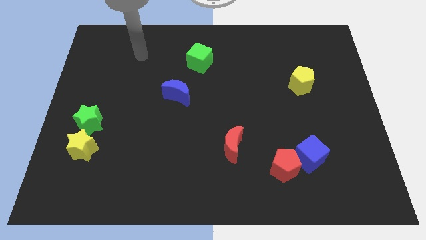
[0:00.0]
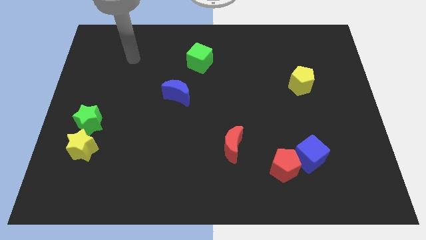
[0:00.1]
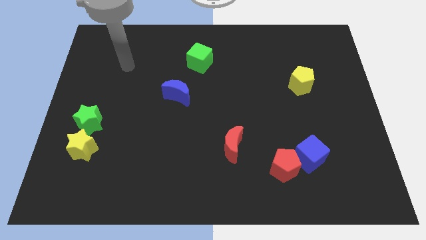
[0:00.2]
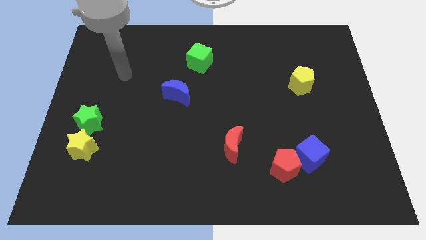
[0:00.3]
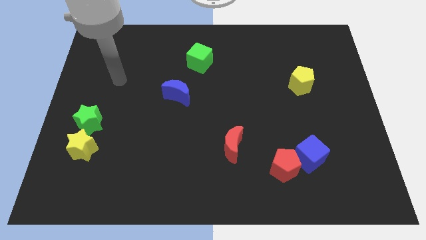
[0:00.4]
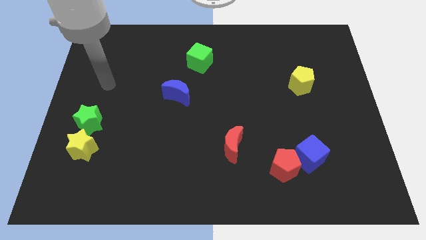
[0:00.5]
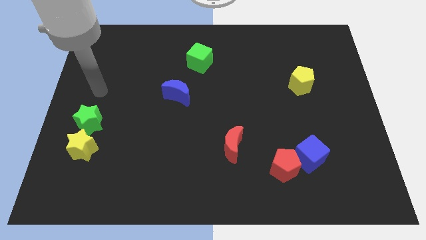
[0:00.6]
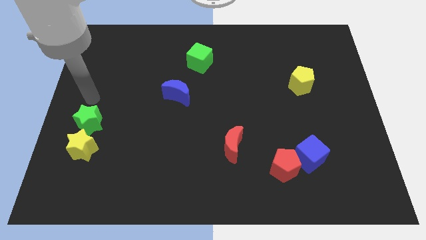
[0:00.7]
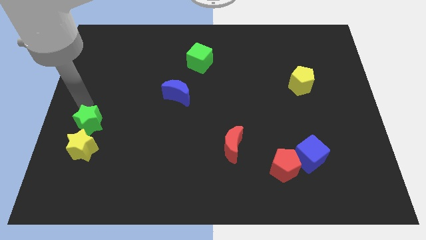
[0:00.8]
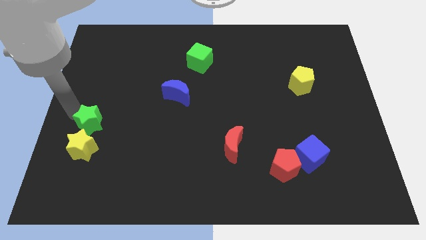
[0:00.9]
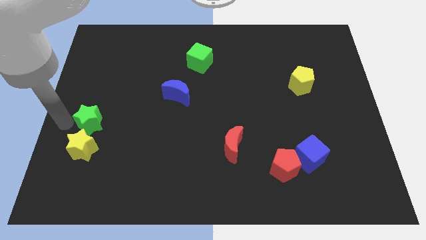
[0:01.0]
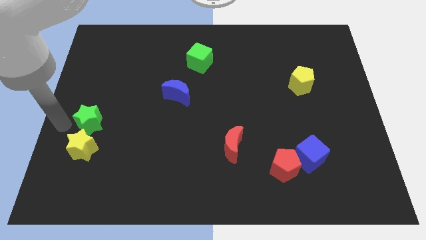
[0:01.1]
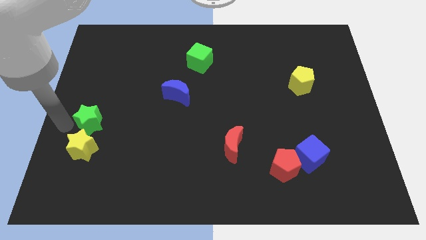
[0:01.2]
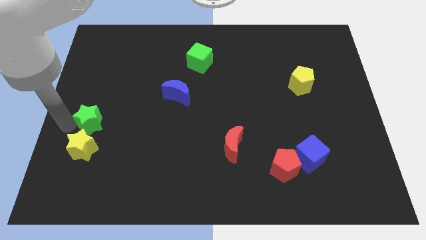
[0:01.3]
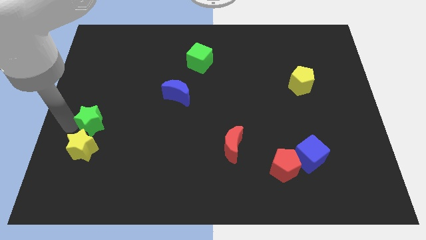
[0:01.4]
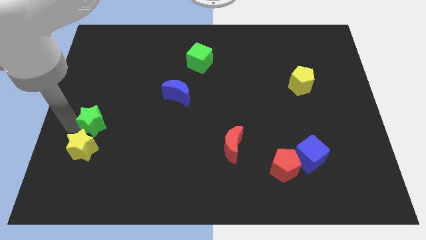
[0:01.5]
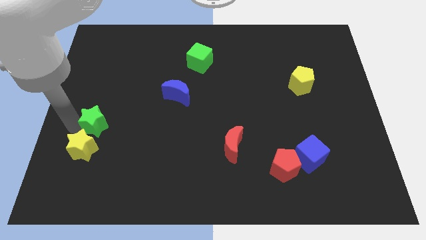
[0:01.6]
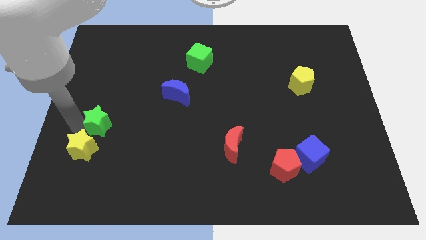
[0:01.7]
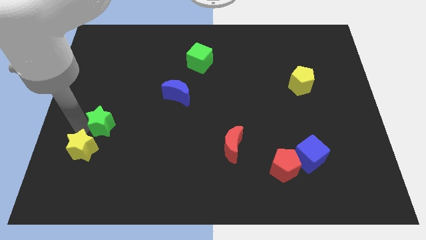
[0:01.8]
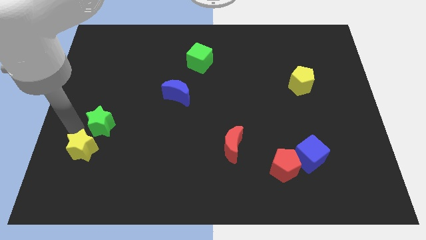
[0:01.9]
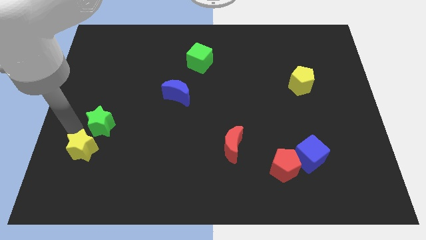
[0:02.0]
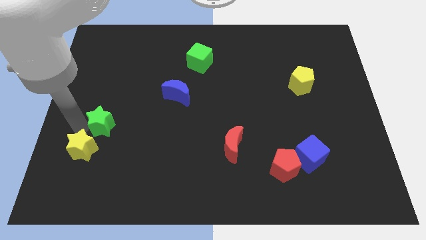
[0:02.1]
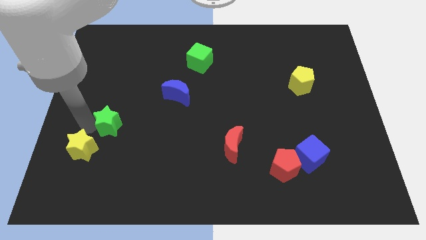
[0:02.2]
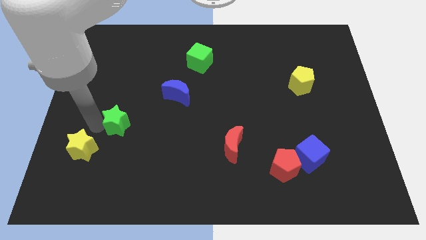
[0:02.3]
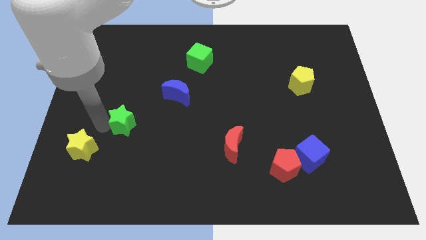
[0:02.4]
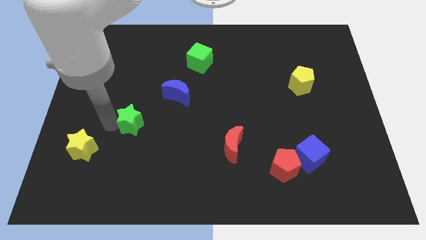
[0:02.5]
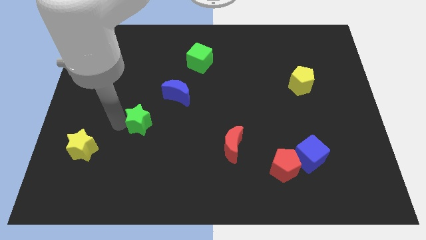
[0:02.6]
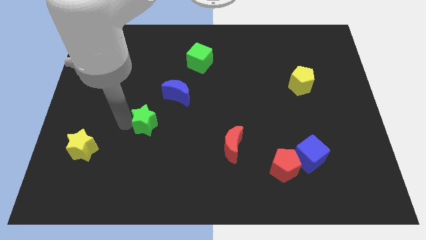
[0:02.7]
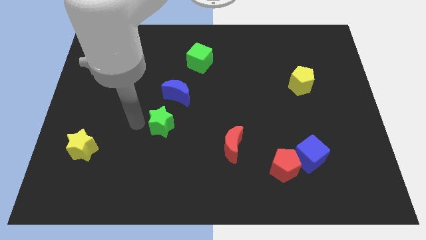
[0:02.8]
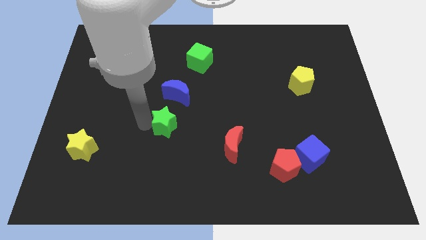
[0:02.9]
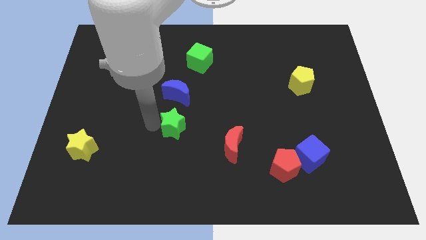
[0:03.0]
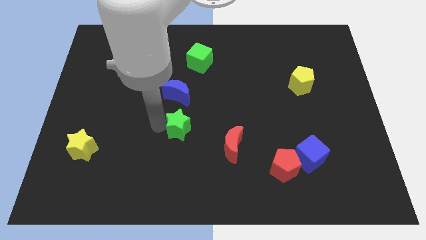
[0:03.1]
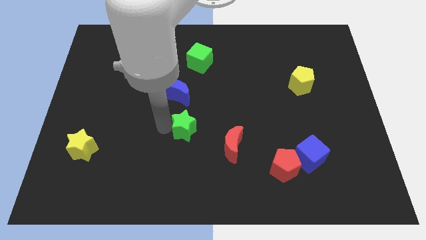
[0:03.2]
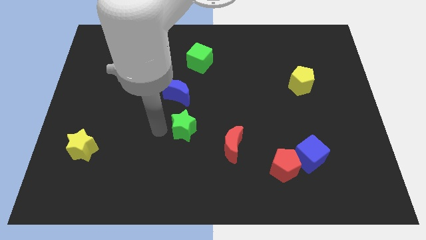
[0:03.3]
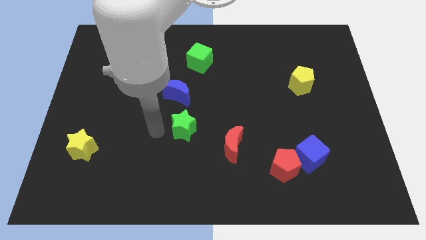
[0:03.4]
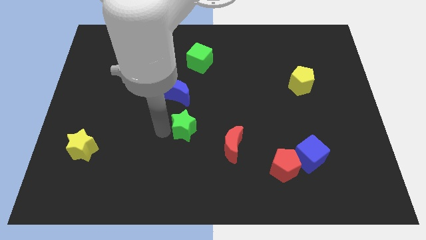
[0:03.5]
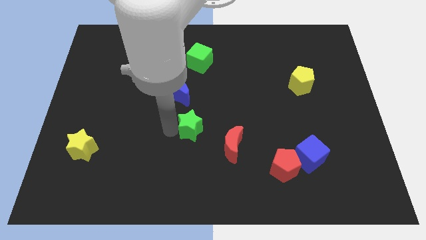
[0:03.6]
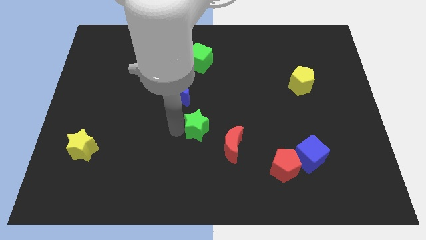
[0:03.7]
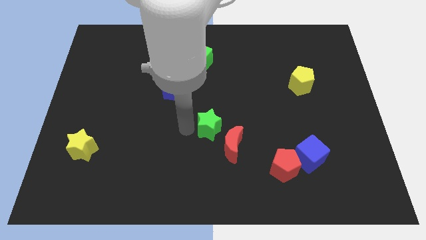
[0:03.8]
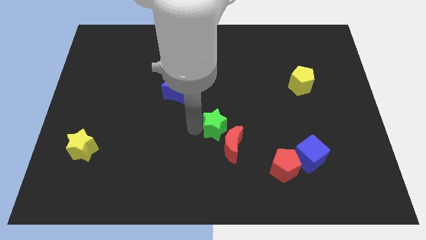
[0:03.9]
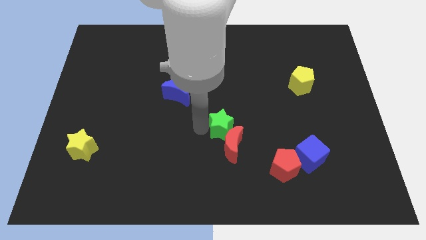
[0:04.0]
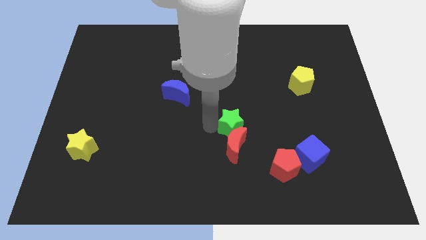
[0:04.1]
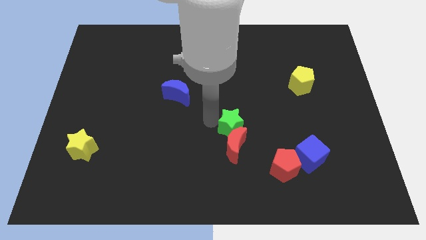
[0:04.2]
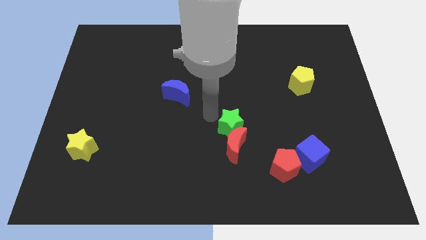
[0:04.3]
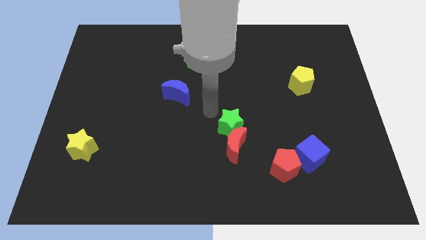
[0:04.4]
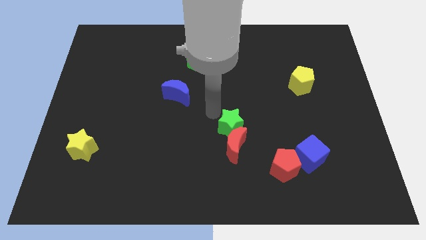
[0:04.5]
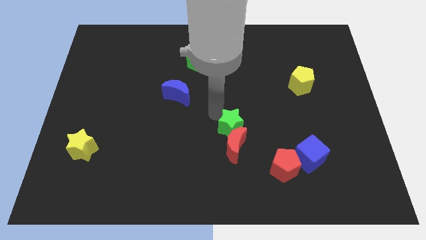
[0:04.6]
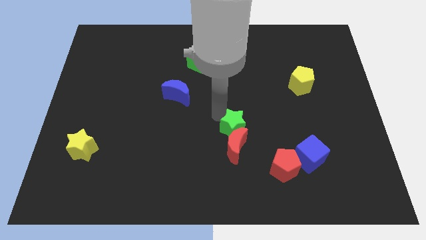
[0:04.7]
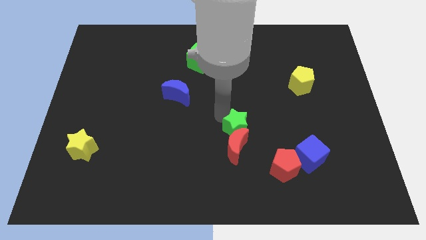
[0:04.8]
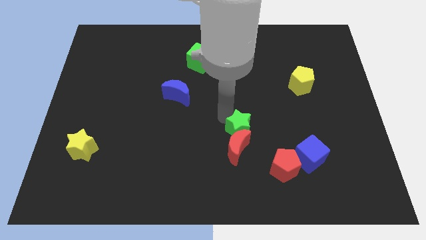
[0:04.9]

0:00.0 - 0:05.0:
slide the green star diagonally up and to the left of the red pentagon

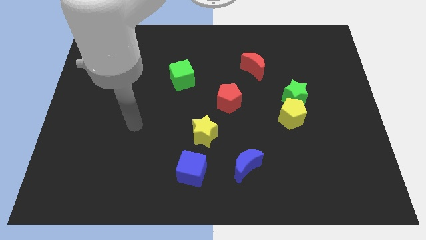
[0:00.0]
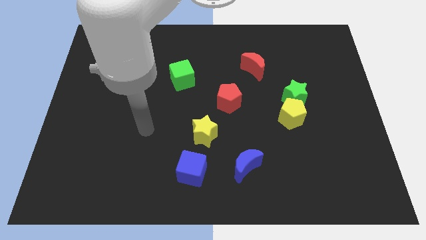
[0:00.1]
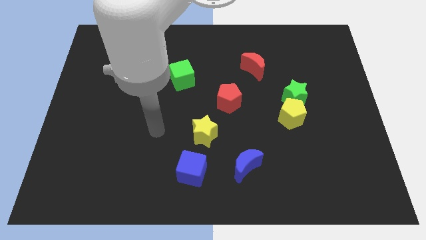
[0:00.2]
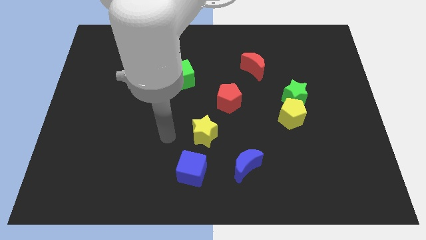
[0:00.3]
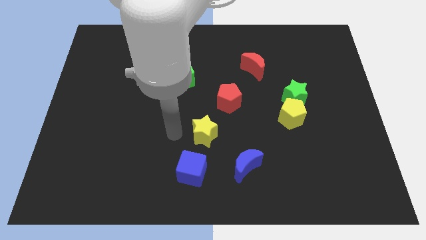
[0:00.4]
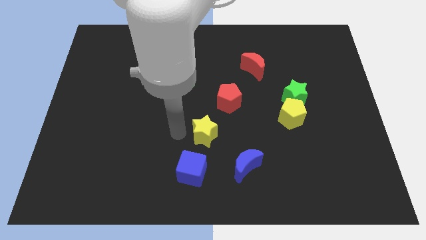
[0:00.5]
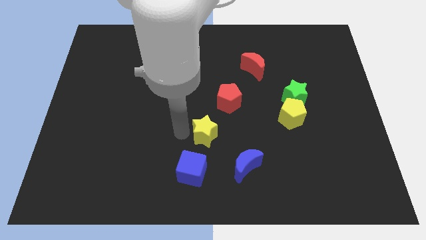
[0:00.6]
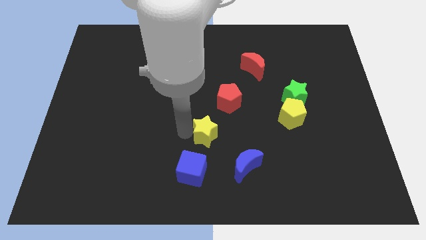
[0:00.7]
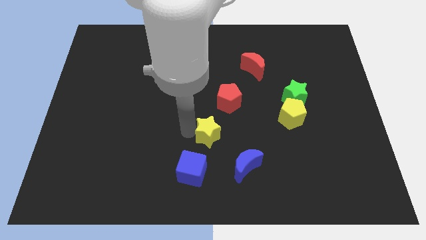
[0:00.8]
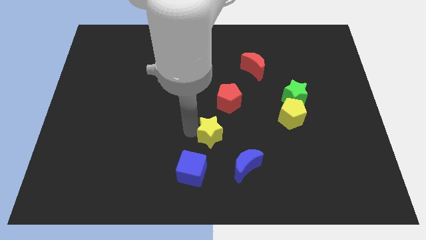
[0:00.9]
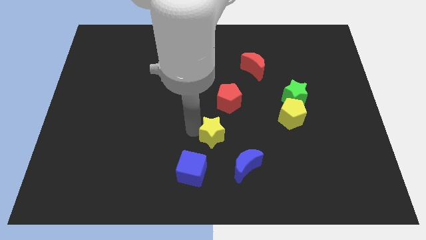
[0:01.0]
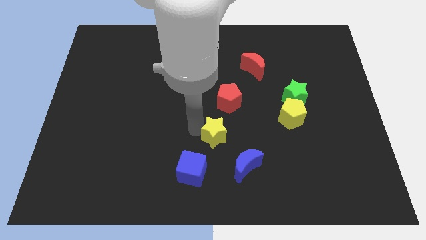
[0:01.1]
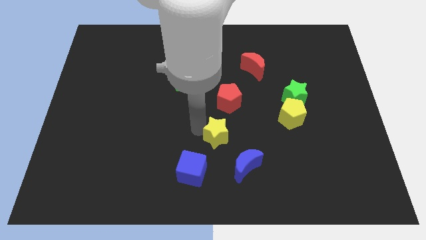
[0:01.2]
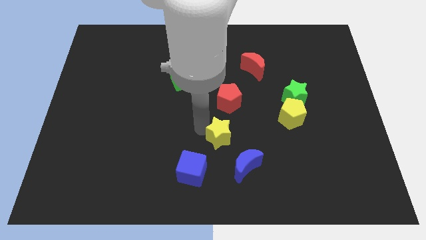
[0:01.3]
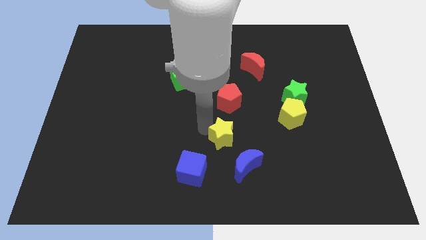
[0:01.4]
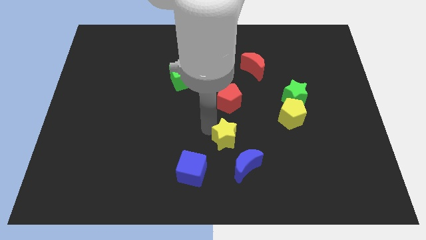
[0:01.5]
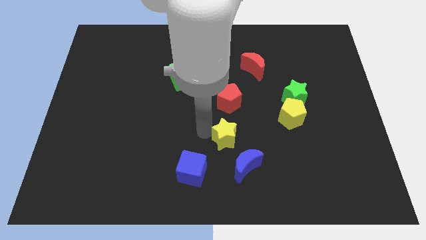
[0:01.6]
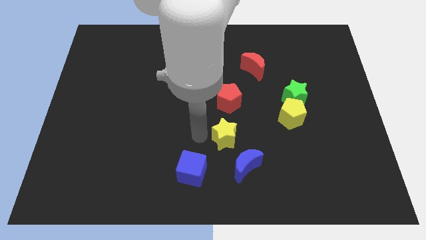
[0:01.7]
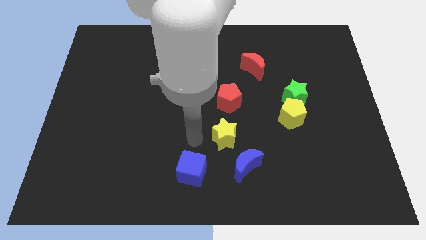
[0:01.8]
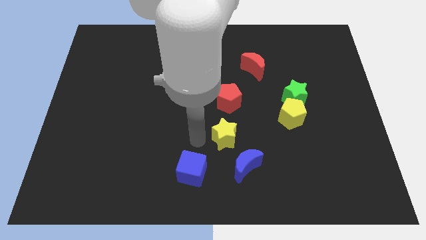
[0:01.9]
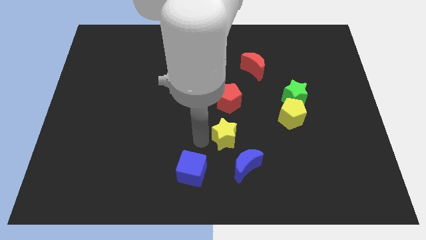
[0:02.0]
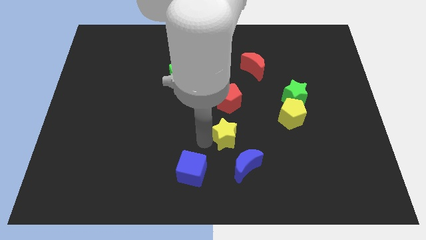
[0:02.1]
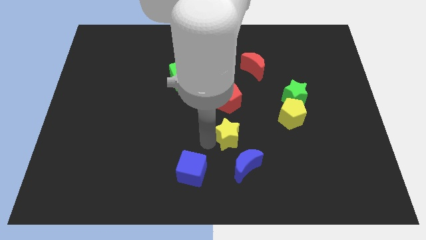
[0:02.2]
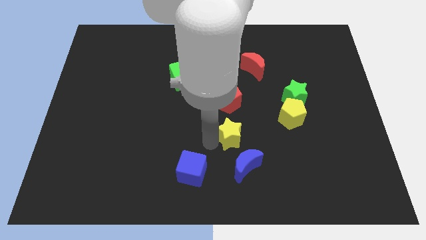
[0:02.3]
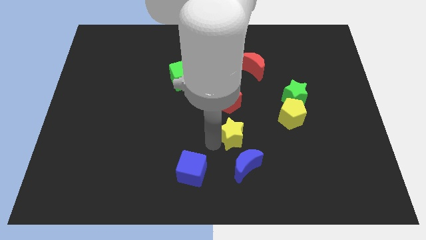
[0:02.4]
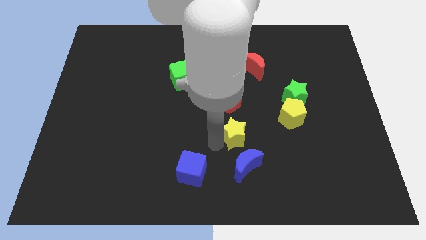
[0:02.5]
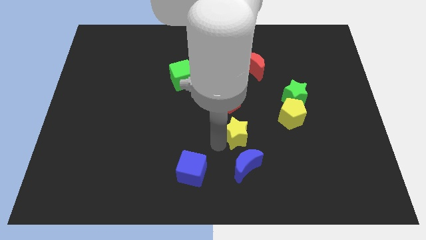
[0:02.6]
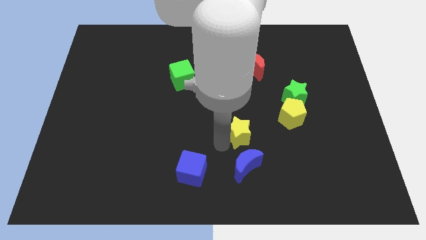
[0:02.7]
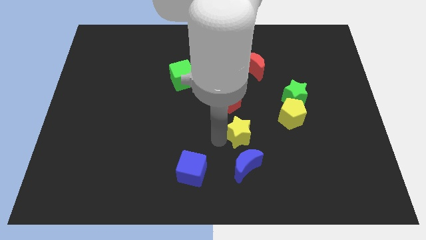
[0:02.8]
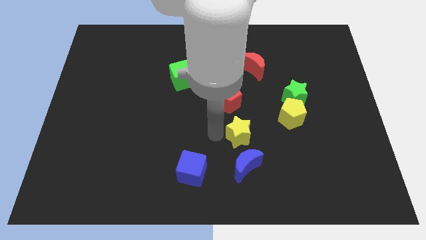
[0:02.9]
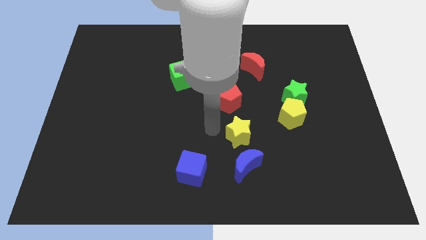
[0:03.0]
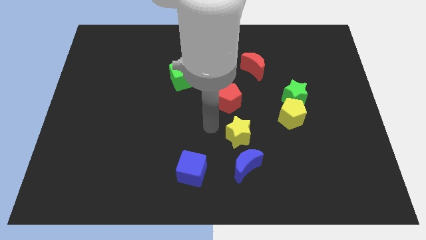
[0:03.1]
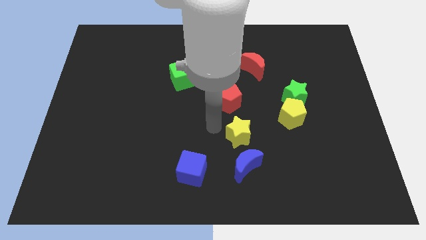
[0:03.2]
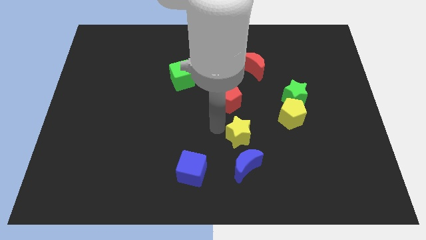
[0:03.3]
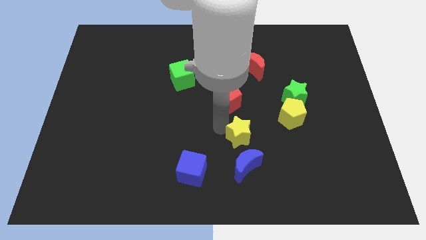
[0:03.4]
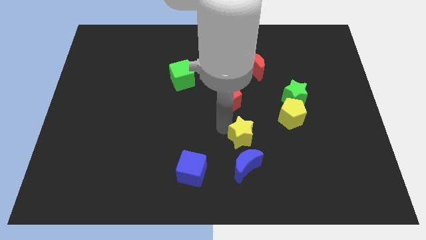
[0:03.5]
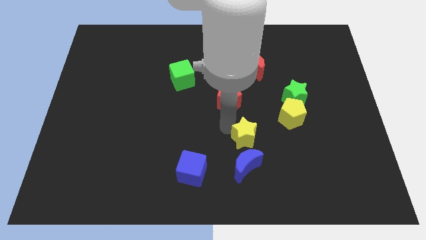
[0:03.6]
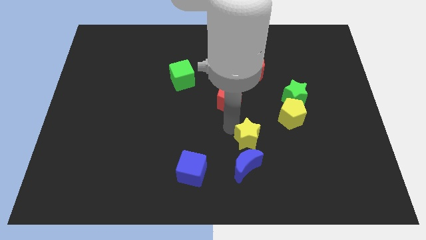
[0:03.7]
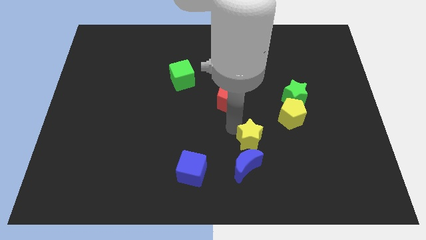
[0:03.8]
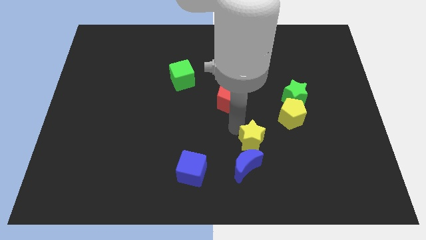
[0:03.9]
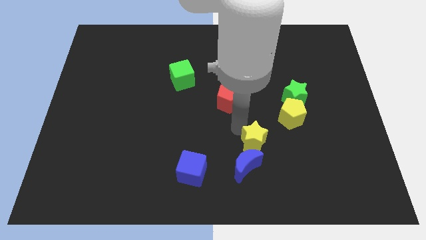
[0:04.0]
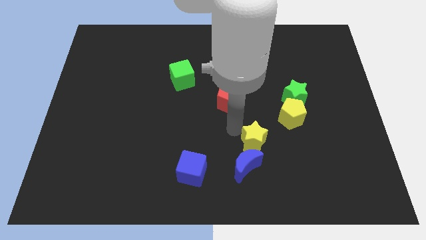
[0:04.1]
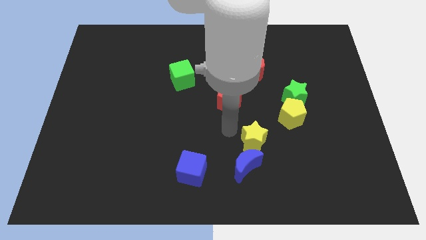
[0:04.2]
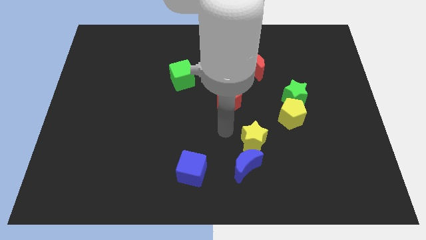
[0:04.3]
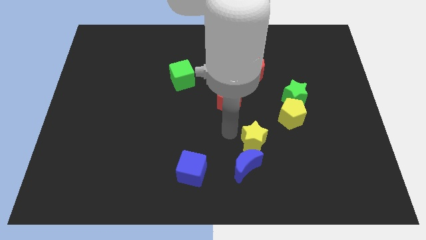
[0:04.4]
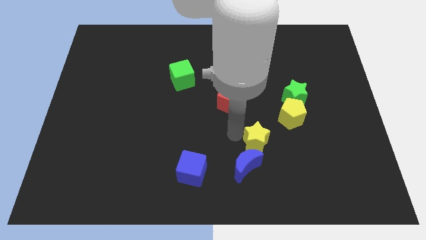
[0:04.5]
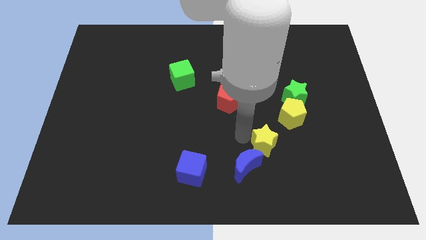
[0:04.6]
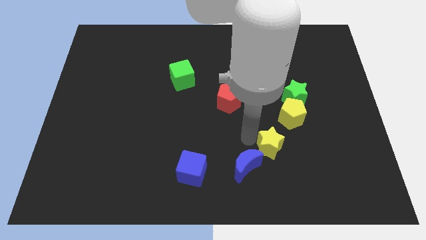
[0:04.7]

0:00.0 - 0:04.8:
move the yellow star to the right side of the blue moon
